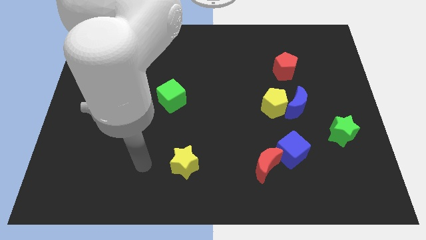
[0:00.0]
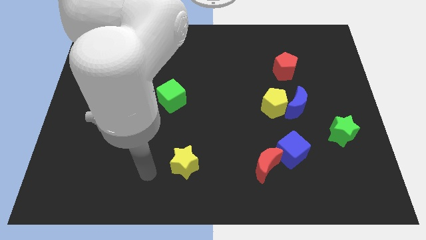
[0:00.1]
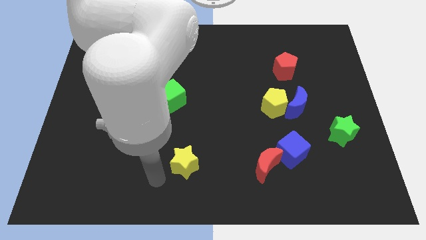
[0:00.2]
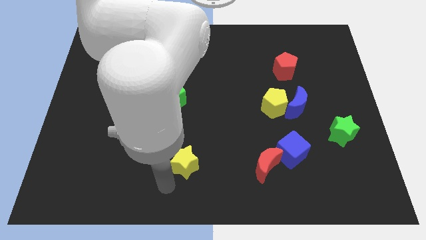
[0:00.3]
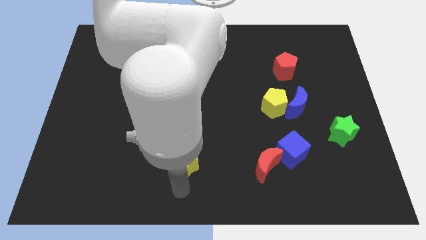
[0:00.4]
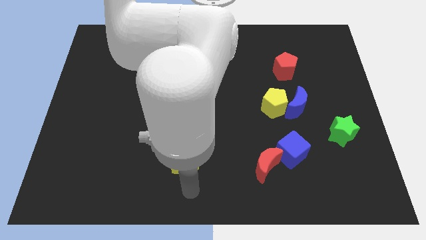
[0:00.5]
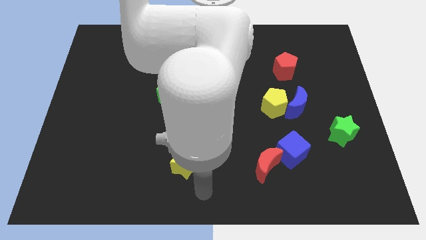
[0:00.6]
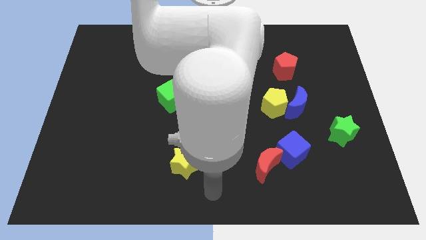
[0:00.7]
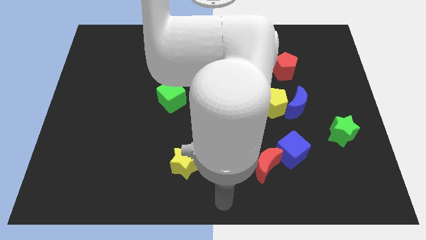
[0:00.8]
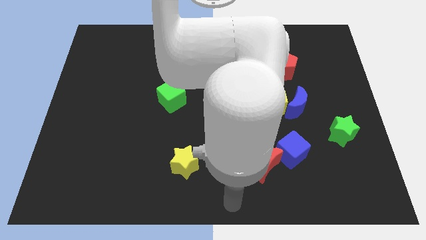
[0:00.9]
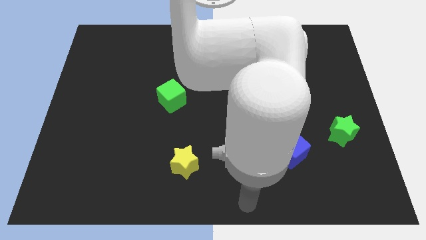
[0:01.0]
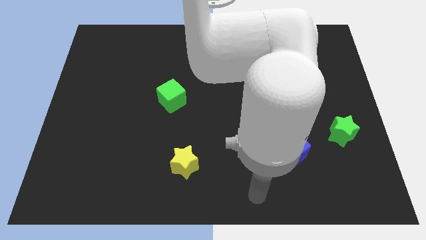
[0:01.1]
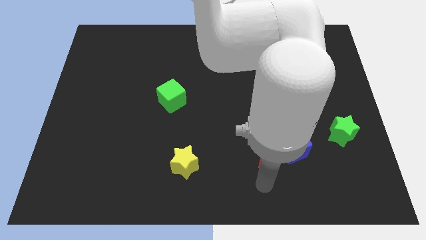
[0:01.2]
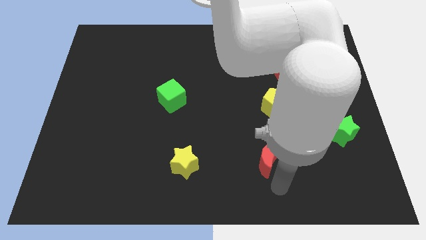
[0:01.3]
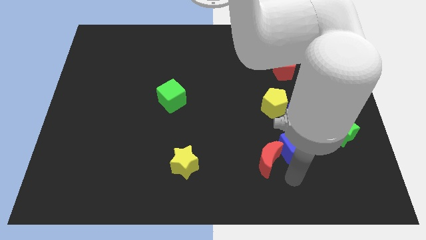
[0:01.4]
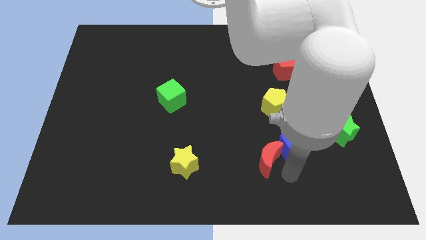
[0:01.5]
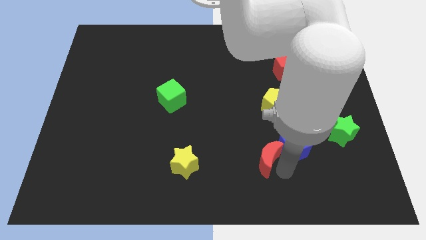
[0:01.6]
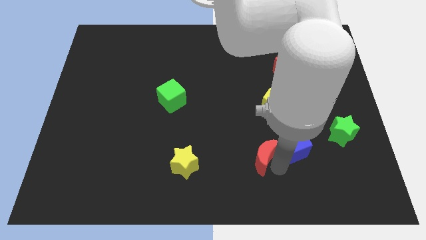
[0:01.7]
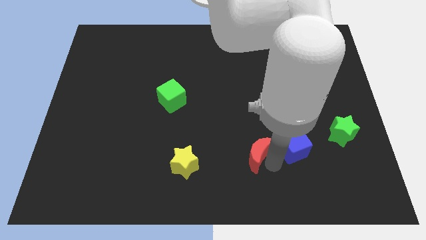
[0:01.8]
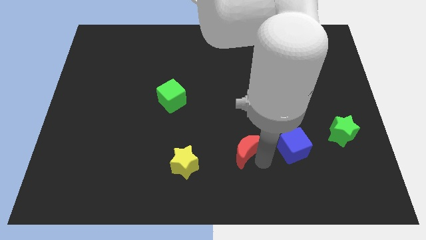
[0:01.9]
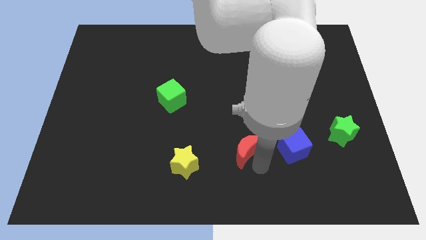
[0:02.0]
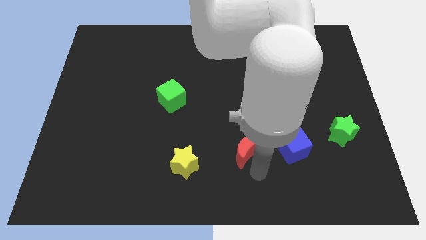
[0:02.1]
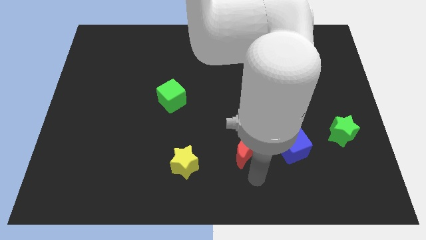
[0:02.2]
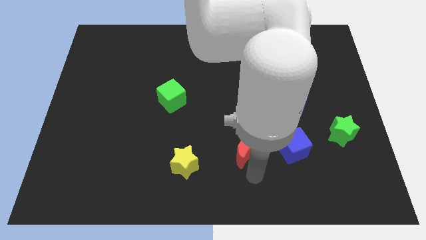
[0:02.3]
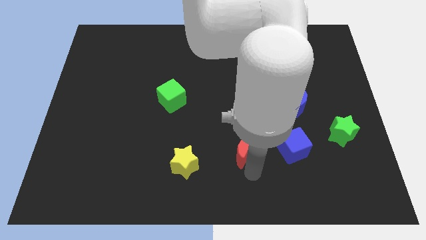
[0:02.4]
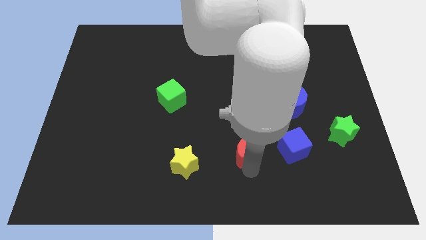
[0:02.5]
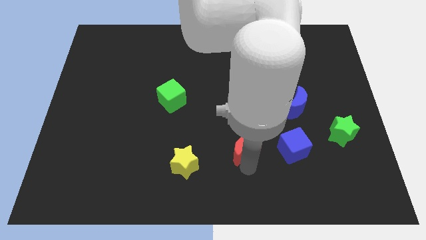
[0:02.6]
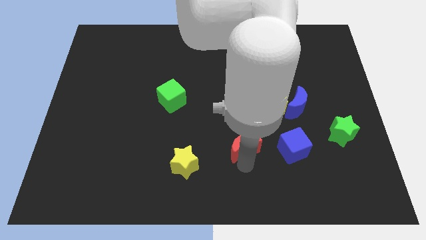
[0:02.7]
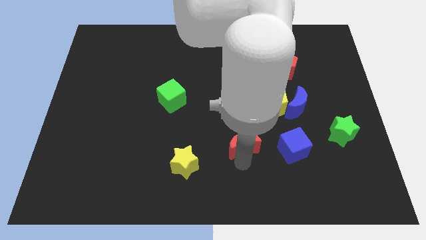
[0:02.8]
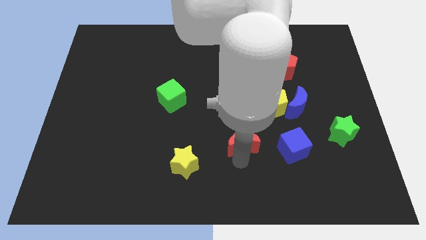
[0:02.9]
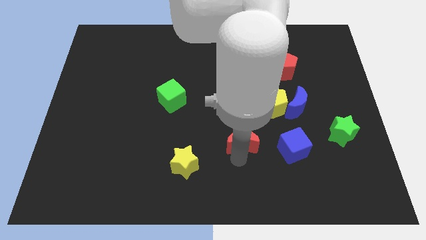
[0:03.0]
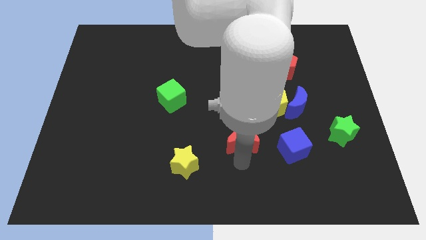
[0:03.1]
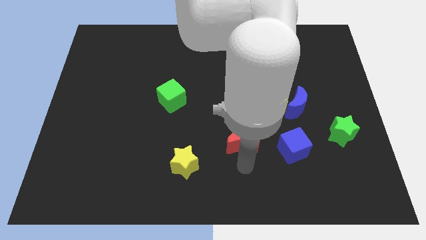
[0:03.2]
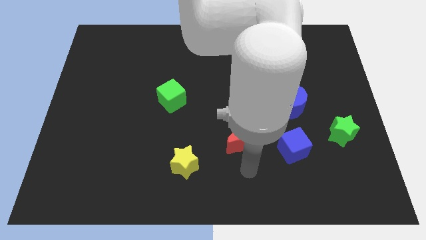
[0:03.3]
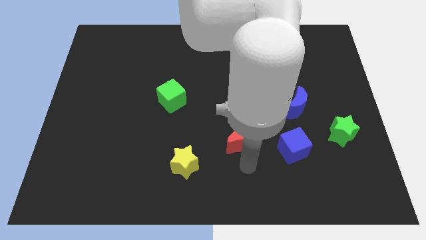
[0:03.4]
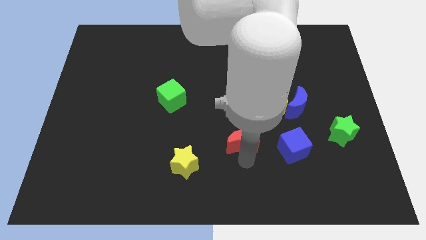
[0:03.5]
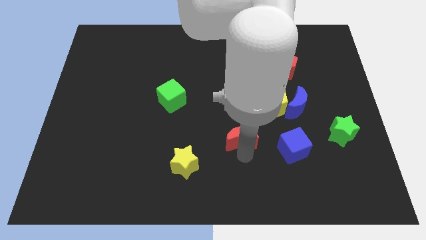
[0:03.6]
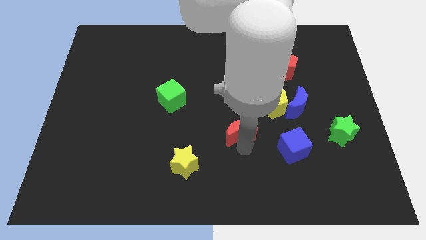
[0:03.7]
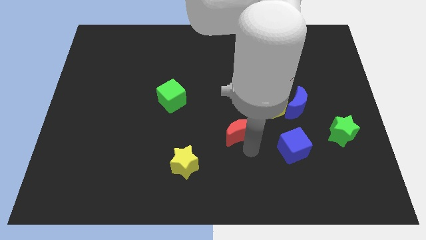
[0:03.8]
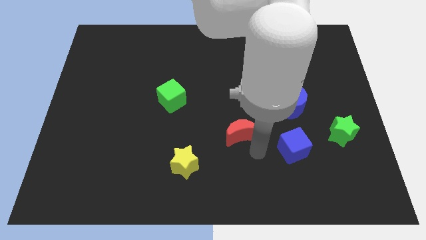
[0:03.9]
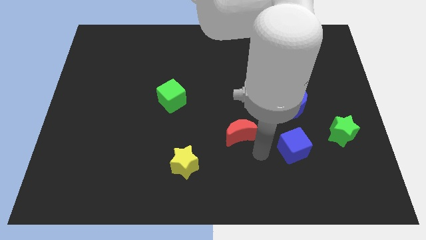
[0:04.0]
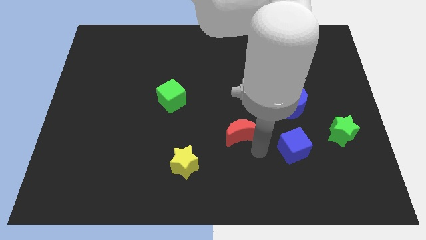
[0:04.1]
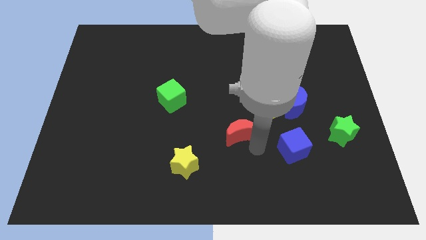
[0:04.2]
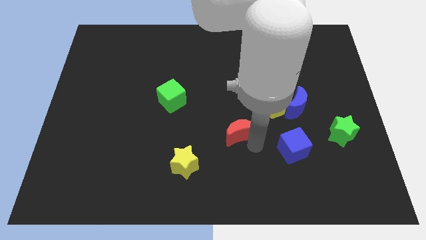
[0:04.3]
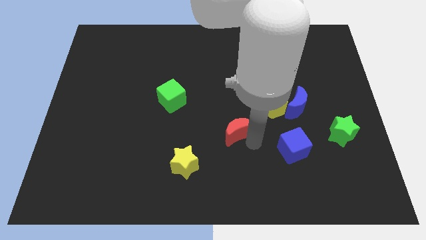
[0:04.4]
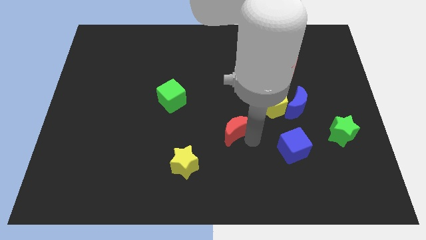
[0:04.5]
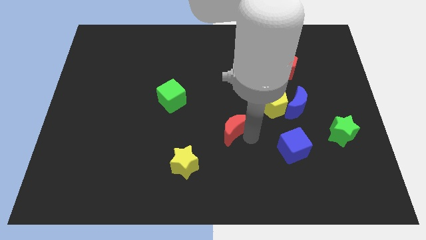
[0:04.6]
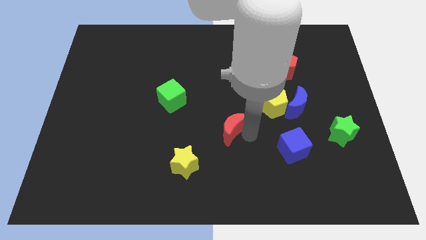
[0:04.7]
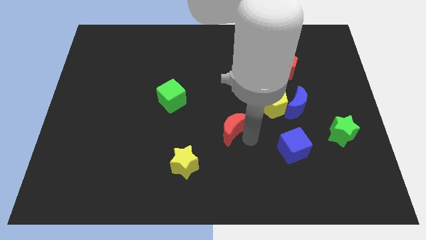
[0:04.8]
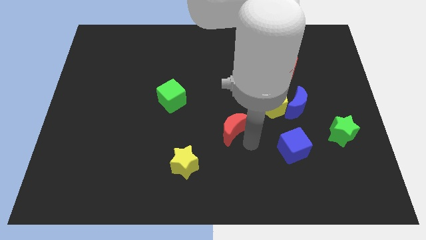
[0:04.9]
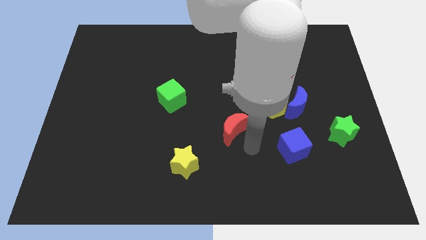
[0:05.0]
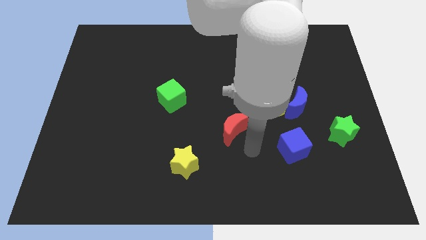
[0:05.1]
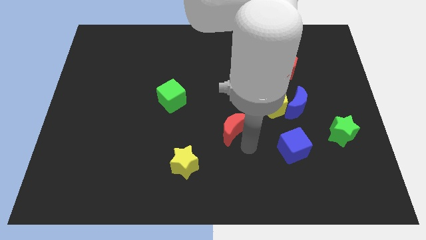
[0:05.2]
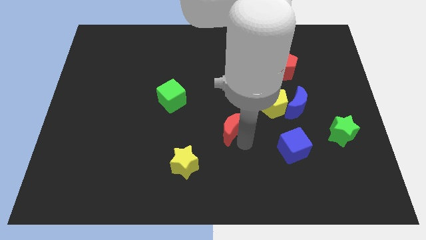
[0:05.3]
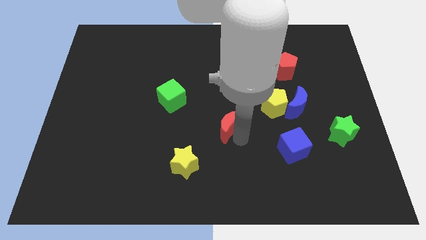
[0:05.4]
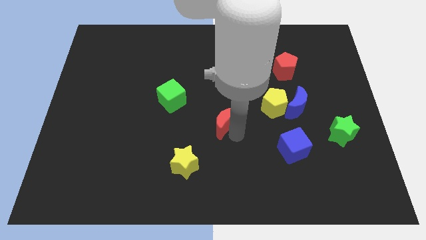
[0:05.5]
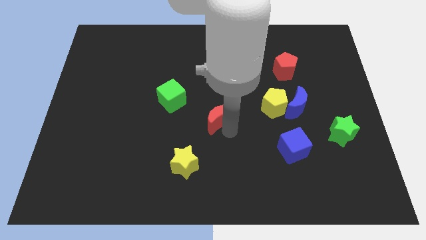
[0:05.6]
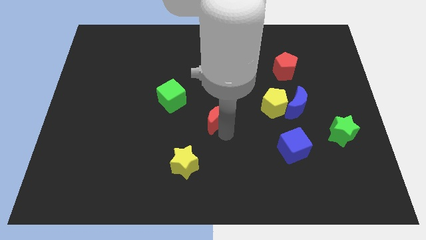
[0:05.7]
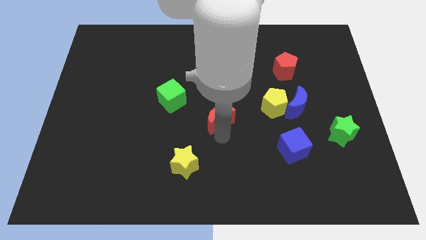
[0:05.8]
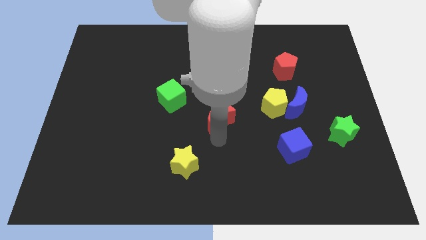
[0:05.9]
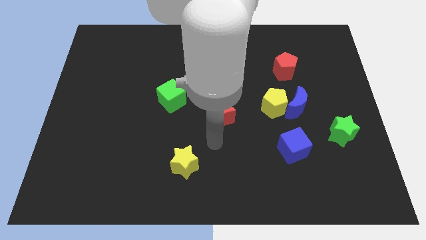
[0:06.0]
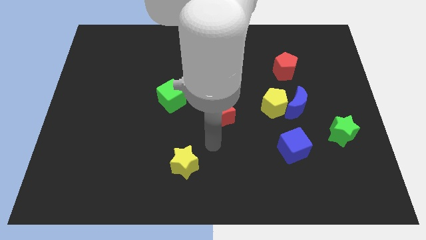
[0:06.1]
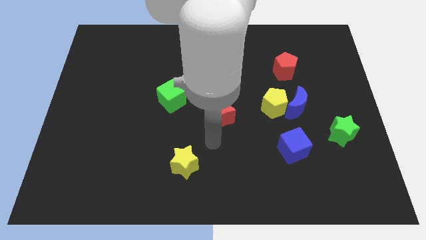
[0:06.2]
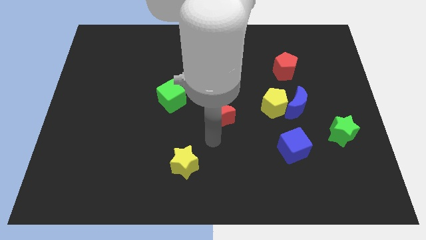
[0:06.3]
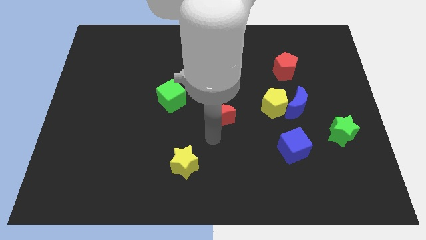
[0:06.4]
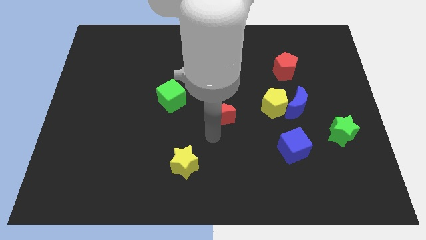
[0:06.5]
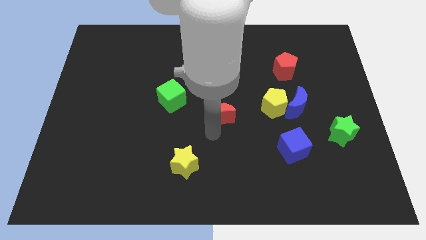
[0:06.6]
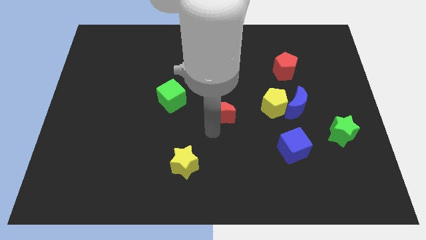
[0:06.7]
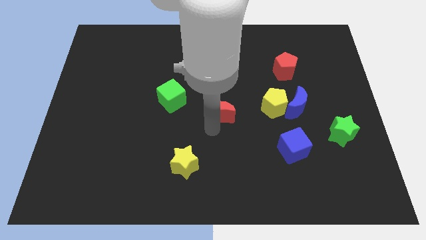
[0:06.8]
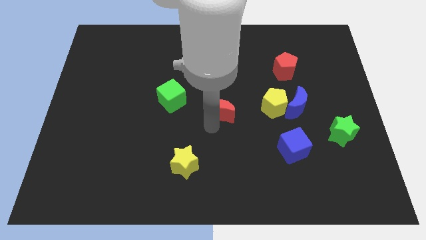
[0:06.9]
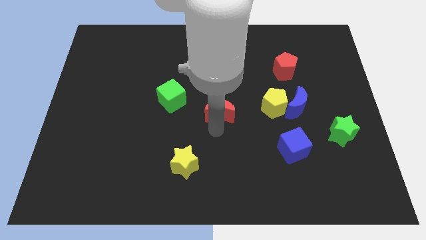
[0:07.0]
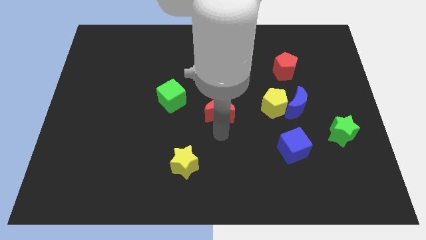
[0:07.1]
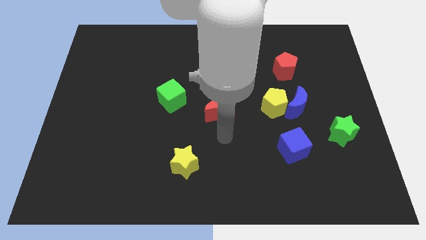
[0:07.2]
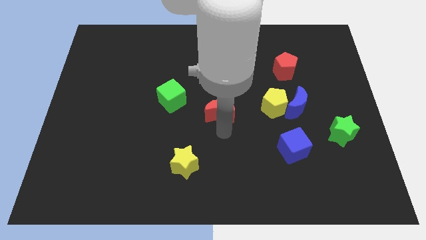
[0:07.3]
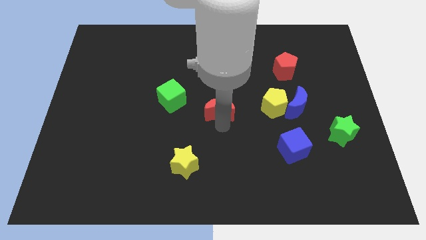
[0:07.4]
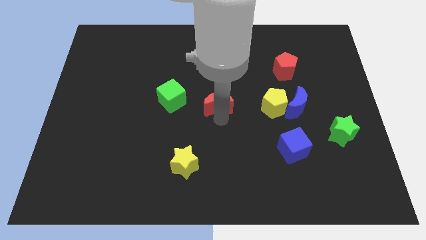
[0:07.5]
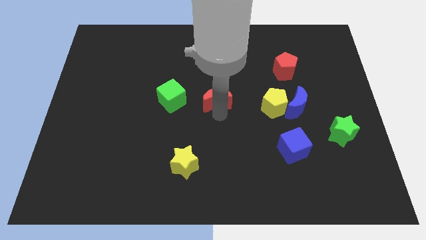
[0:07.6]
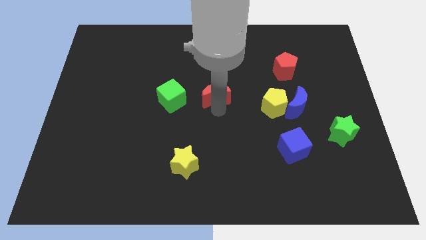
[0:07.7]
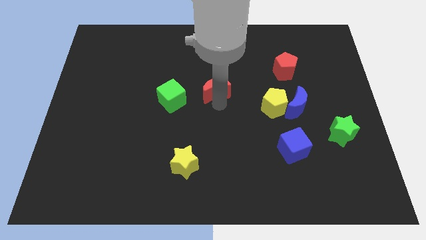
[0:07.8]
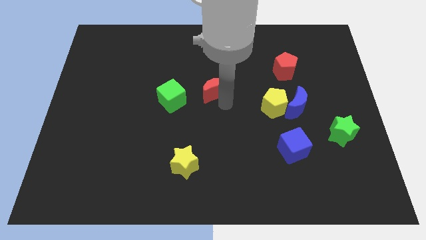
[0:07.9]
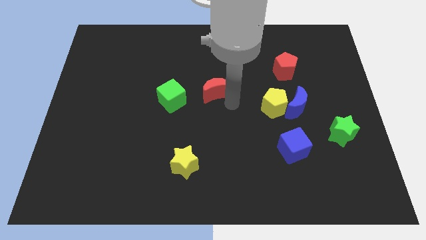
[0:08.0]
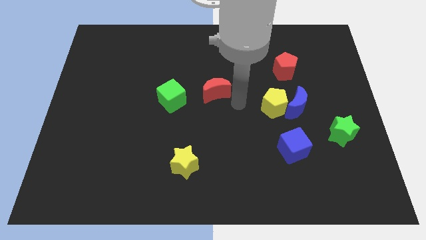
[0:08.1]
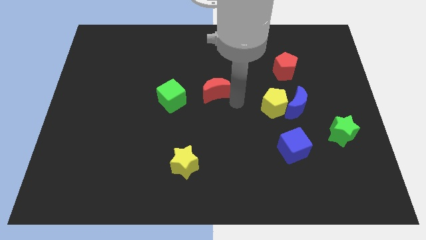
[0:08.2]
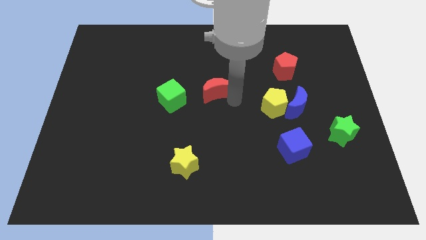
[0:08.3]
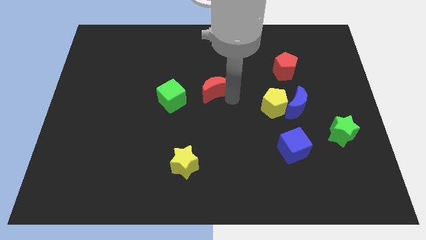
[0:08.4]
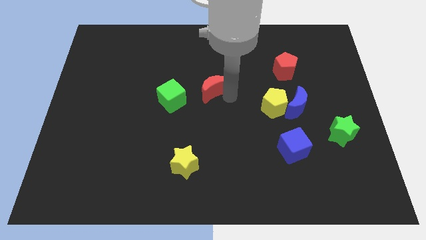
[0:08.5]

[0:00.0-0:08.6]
put the red moon to the top right of the green cube
